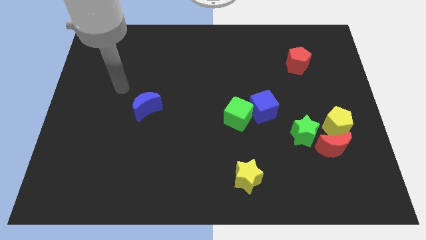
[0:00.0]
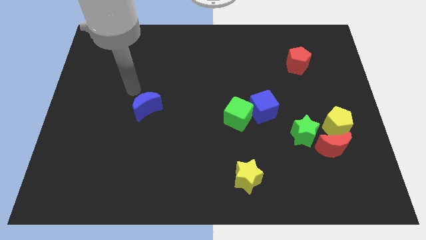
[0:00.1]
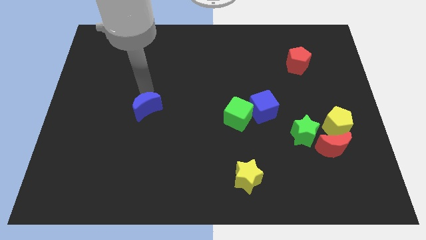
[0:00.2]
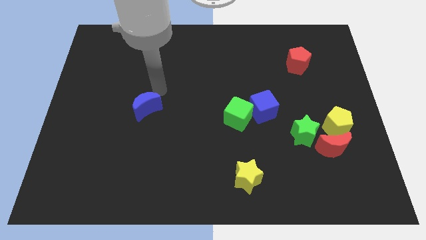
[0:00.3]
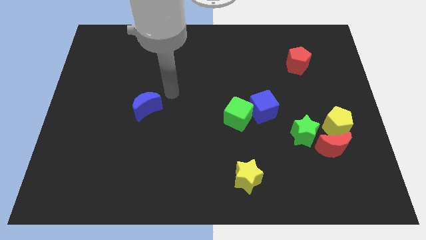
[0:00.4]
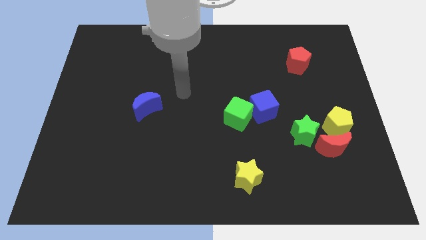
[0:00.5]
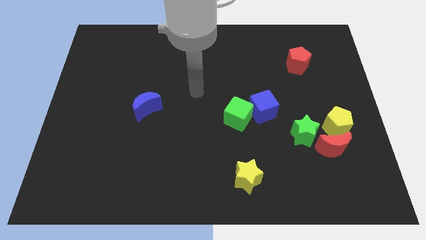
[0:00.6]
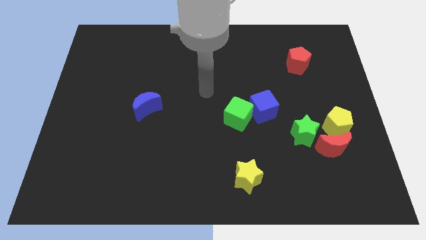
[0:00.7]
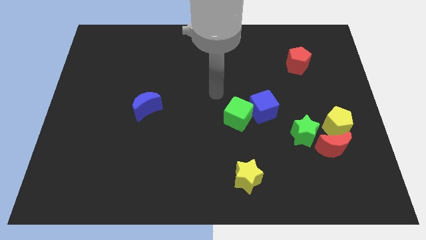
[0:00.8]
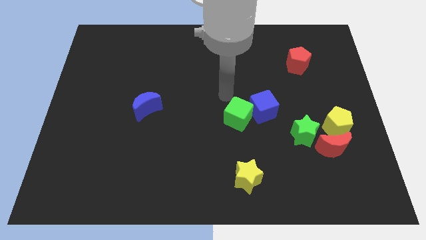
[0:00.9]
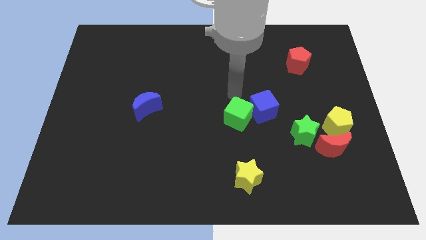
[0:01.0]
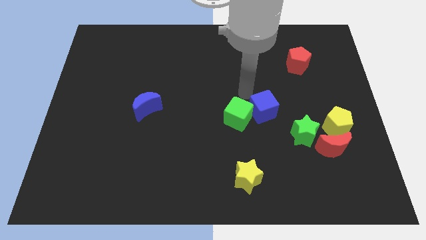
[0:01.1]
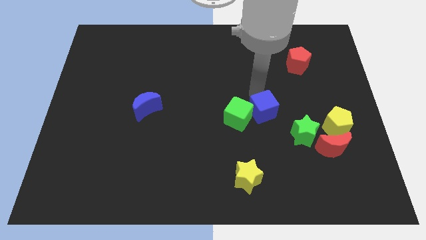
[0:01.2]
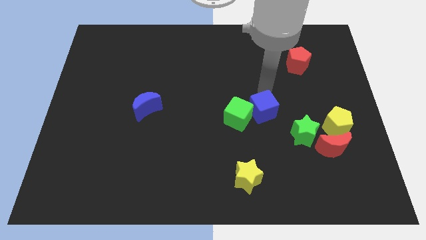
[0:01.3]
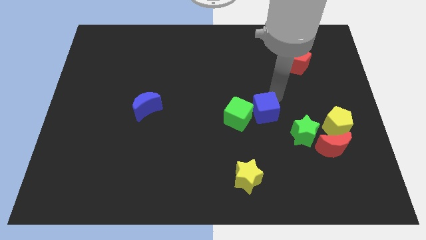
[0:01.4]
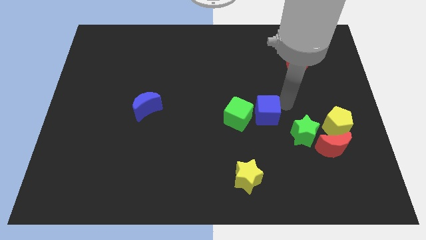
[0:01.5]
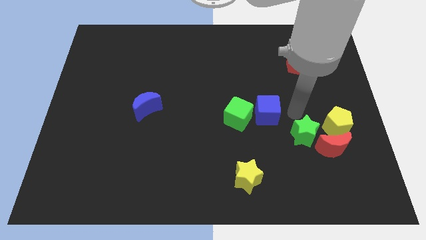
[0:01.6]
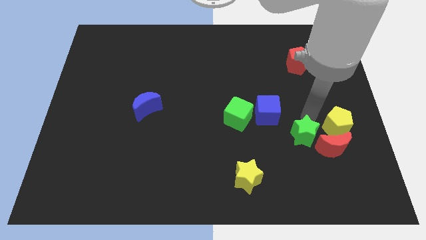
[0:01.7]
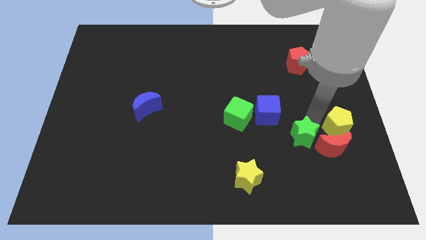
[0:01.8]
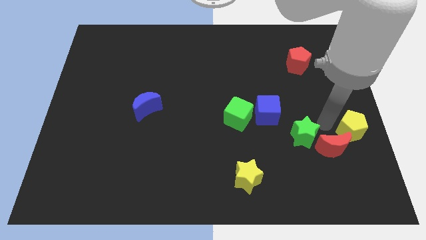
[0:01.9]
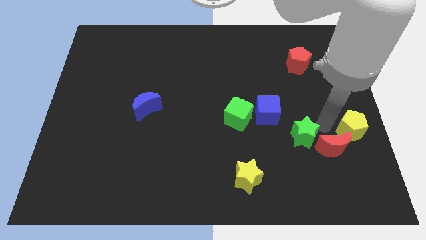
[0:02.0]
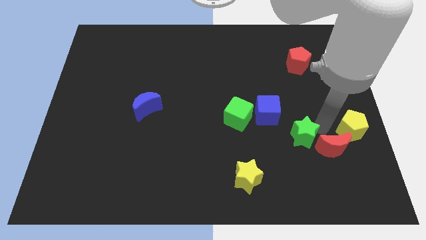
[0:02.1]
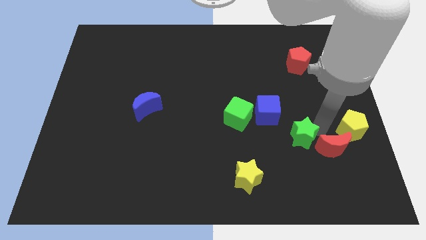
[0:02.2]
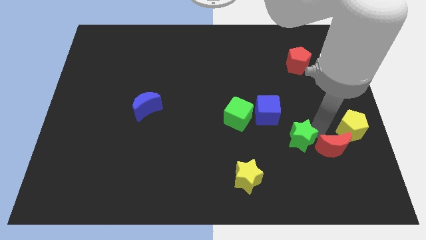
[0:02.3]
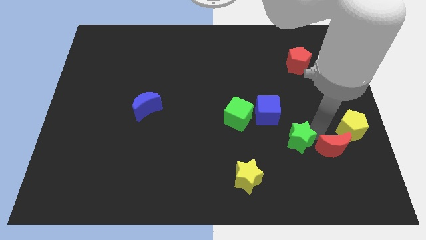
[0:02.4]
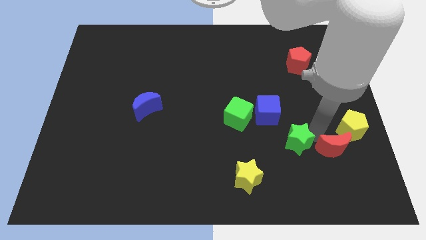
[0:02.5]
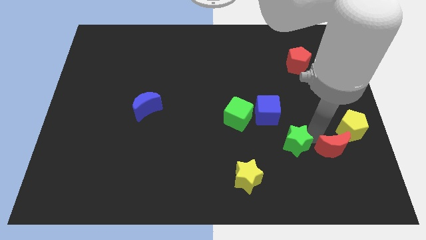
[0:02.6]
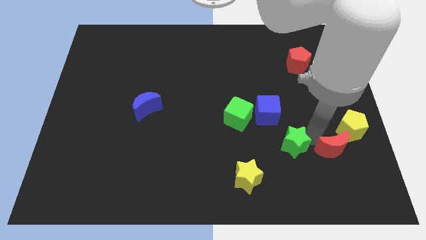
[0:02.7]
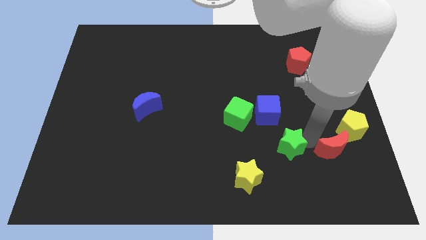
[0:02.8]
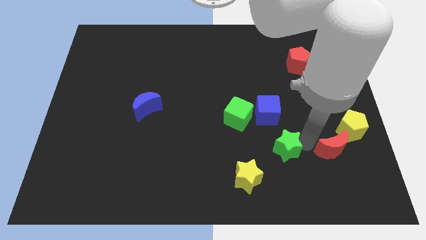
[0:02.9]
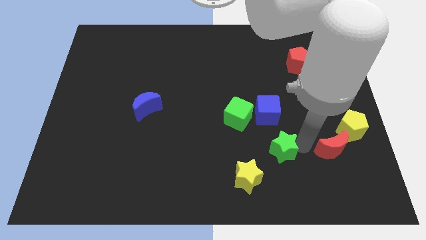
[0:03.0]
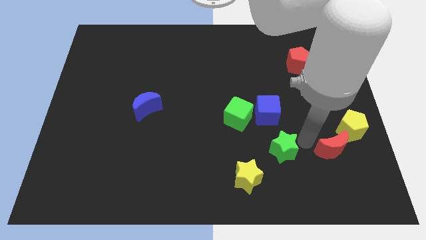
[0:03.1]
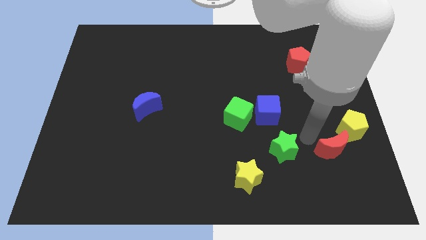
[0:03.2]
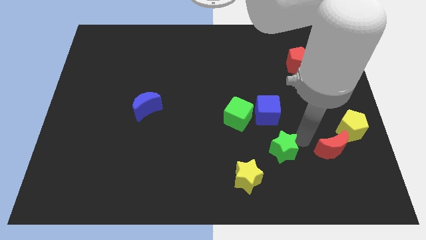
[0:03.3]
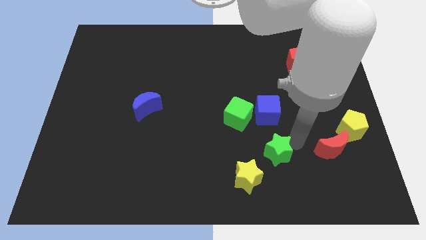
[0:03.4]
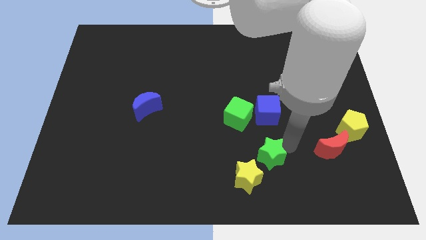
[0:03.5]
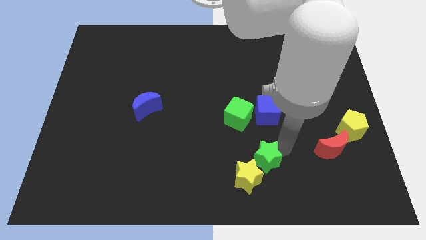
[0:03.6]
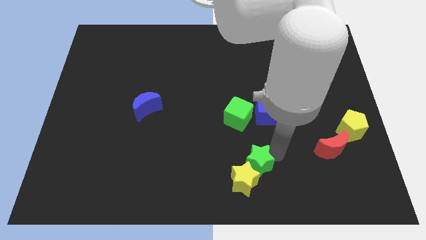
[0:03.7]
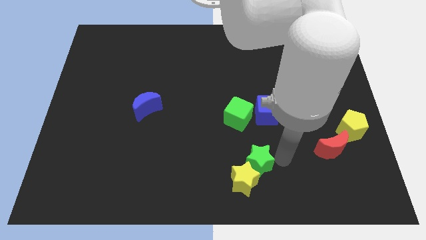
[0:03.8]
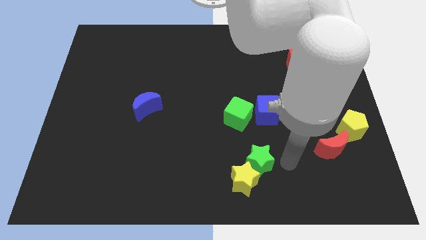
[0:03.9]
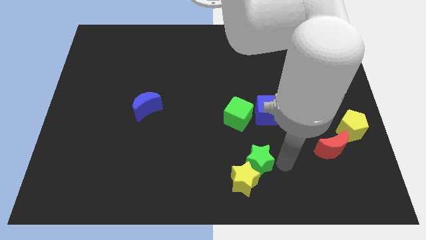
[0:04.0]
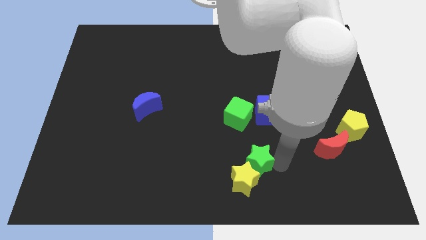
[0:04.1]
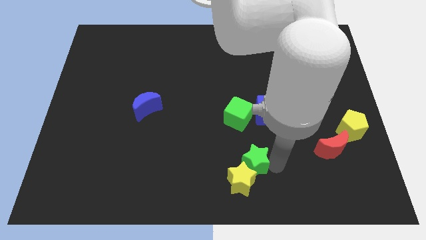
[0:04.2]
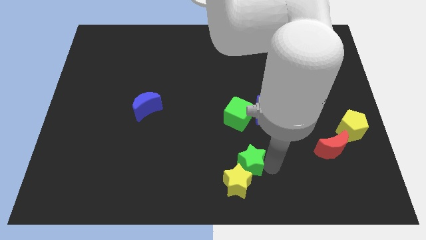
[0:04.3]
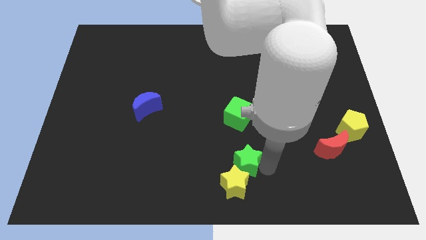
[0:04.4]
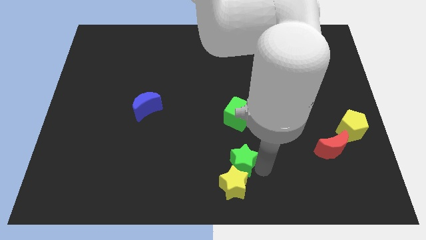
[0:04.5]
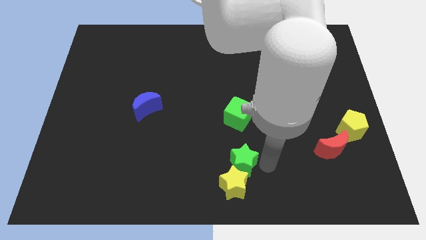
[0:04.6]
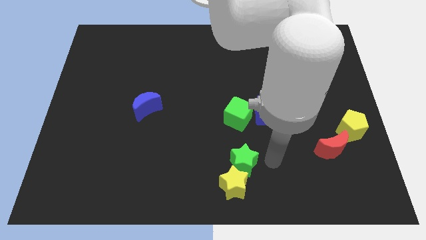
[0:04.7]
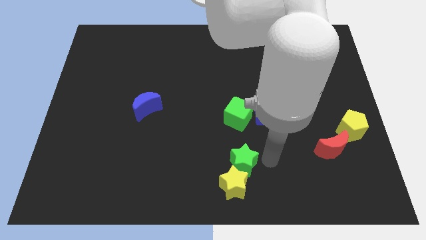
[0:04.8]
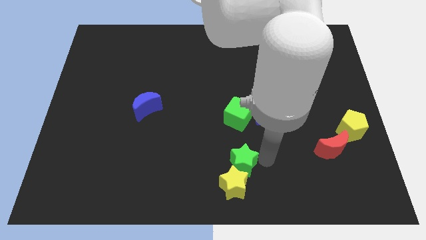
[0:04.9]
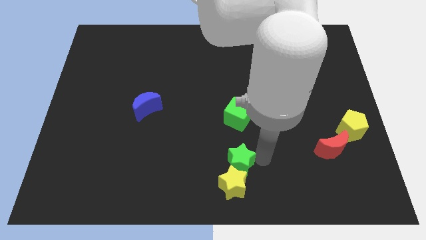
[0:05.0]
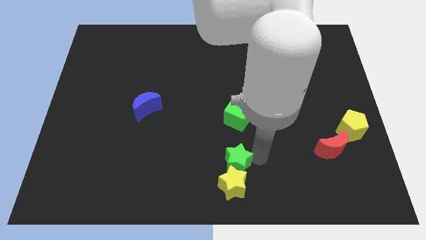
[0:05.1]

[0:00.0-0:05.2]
move the green star to the top left side of the yellow star

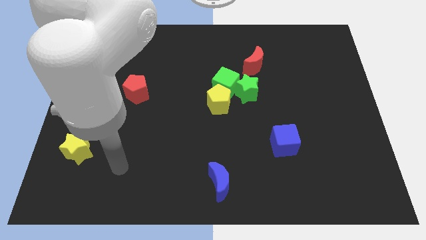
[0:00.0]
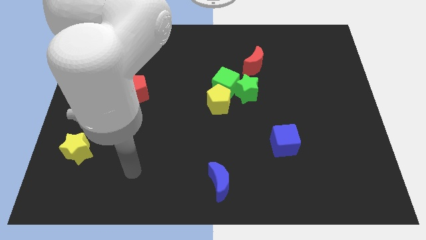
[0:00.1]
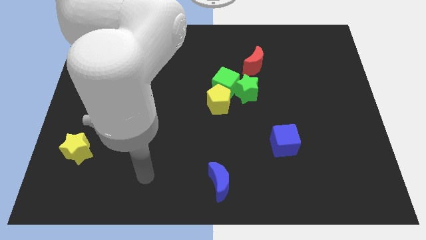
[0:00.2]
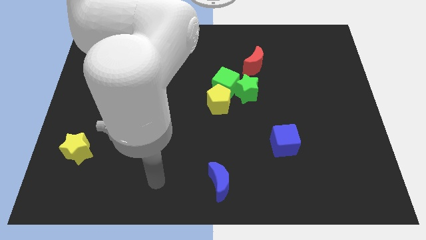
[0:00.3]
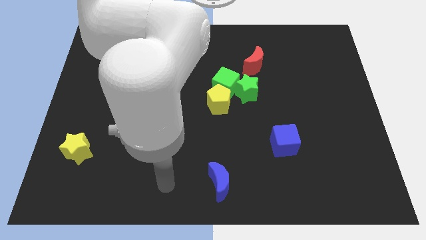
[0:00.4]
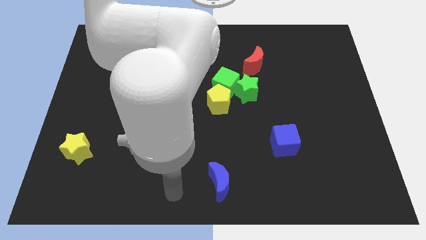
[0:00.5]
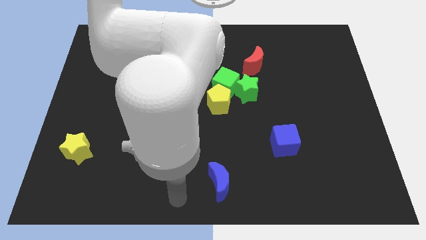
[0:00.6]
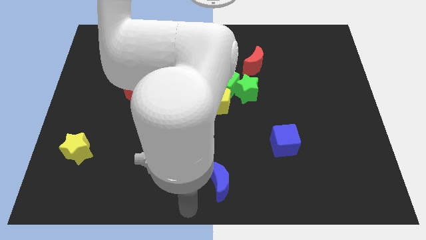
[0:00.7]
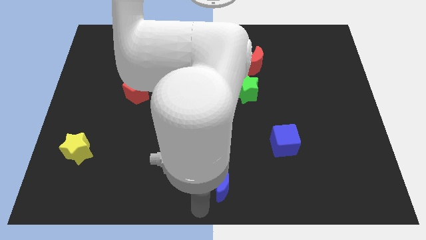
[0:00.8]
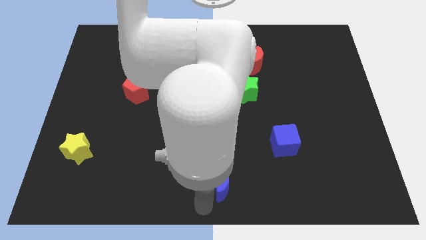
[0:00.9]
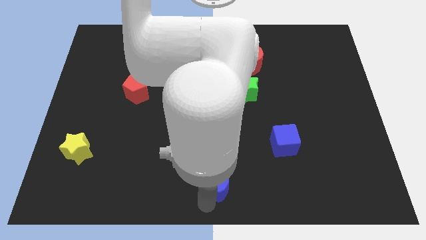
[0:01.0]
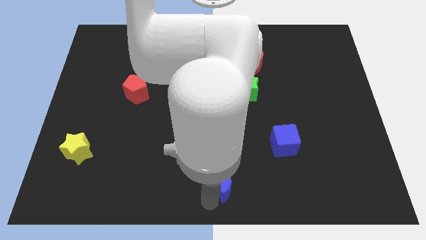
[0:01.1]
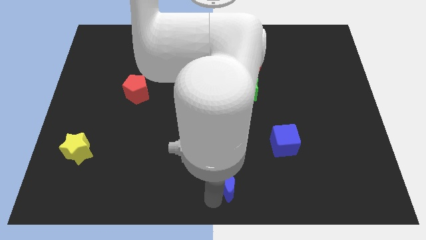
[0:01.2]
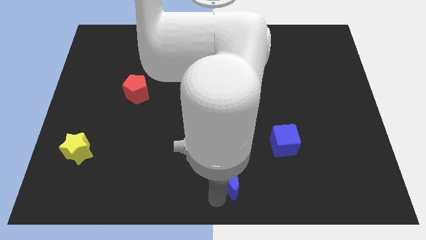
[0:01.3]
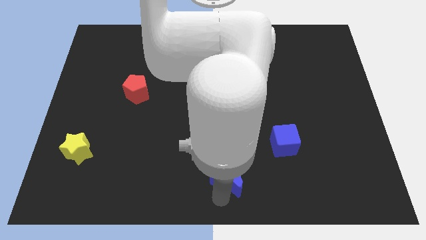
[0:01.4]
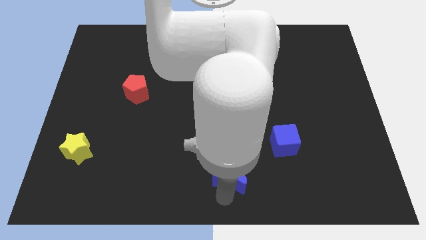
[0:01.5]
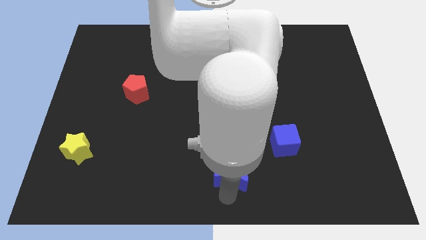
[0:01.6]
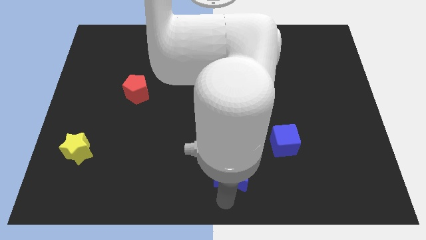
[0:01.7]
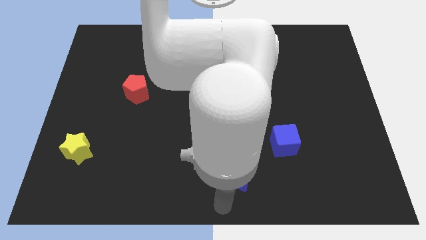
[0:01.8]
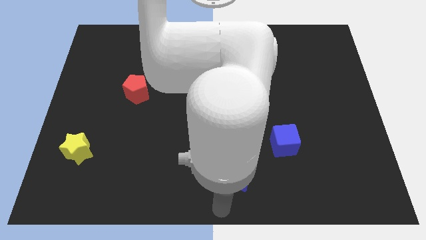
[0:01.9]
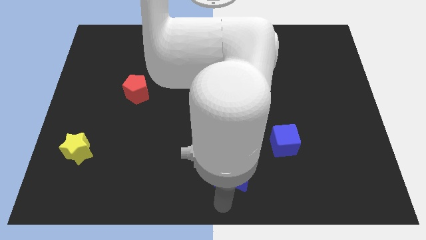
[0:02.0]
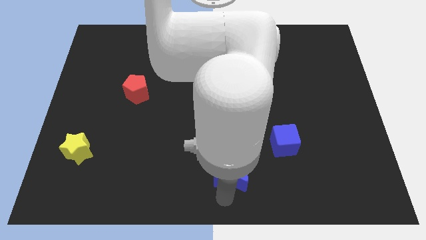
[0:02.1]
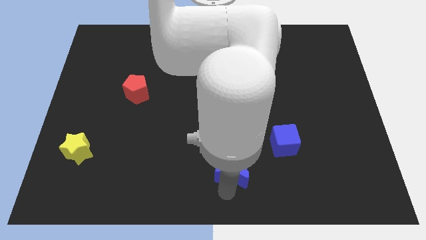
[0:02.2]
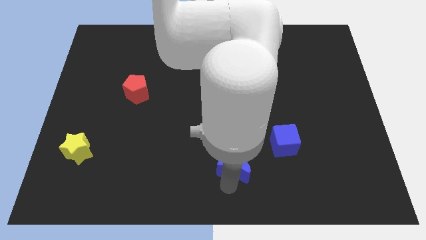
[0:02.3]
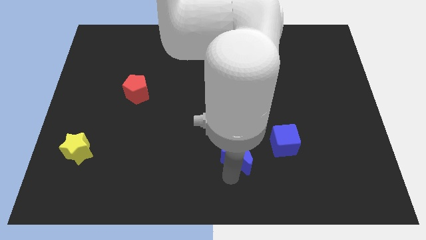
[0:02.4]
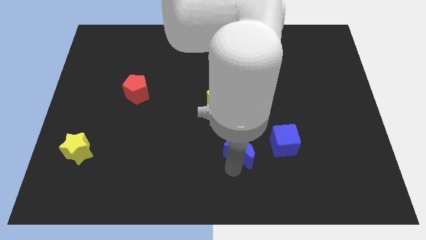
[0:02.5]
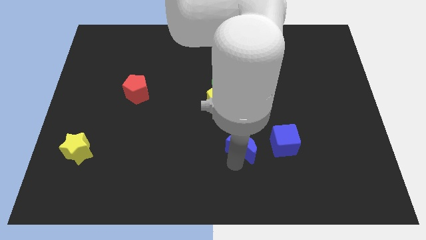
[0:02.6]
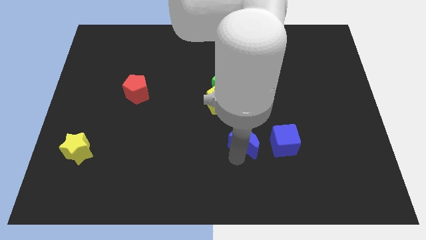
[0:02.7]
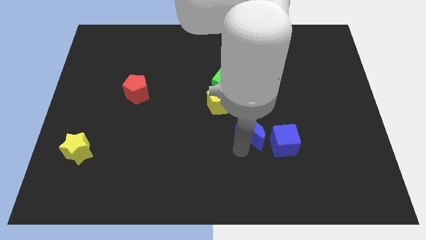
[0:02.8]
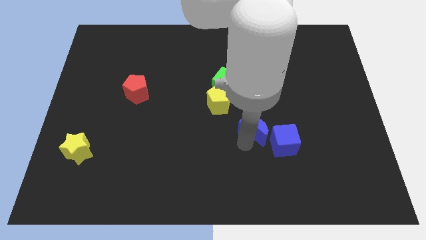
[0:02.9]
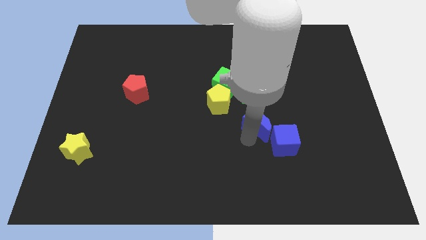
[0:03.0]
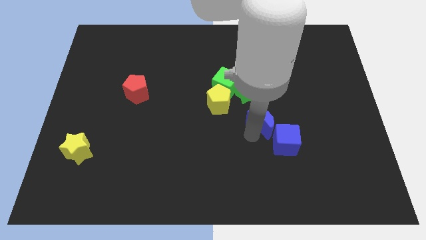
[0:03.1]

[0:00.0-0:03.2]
put the blue moon to the top of the blue cube
